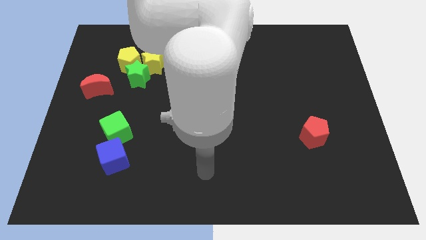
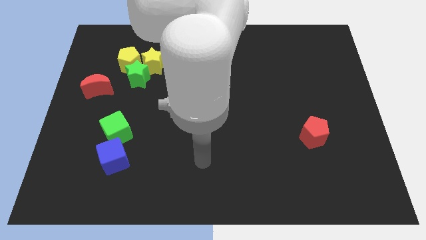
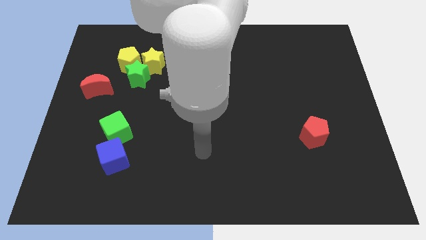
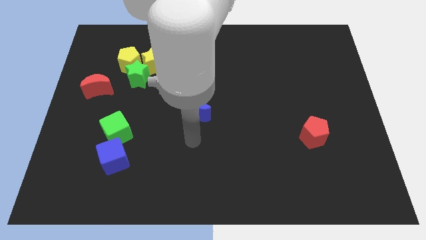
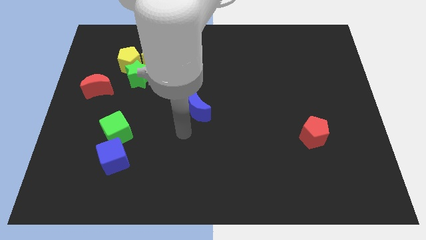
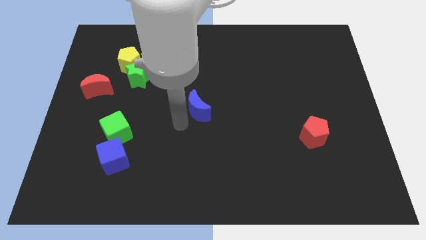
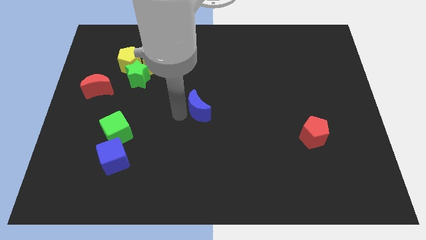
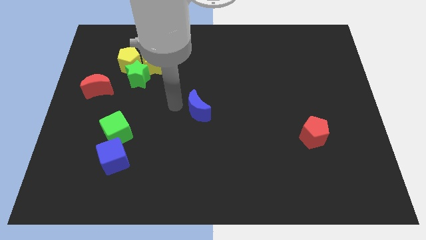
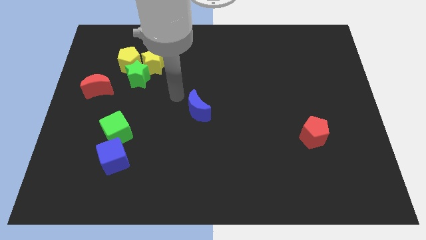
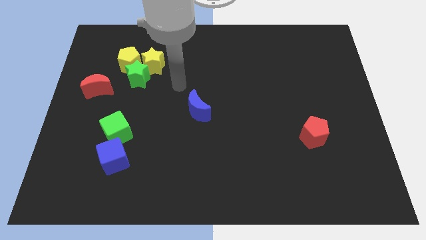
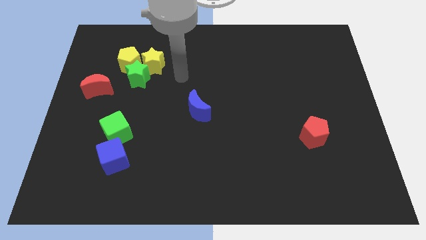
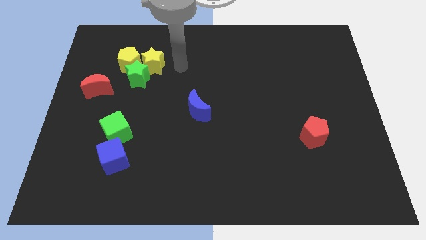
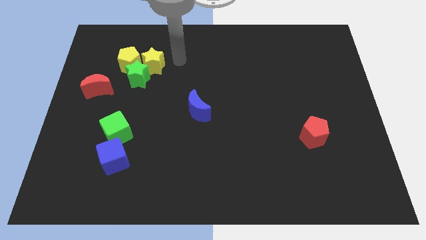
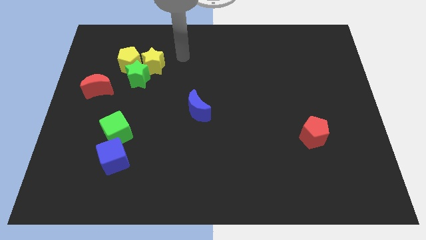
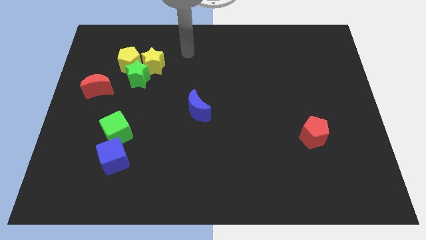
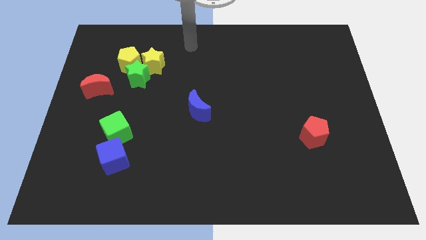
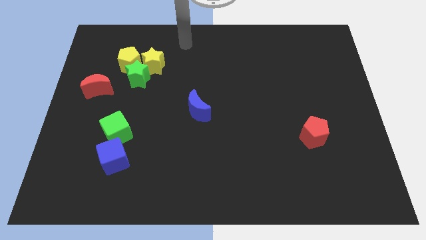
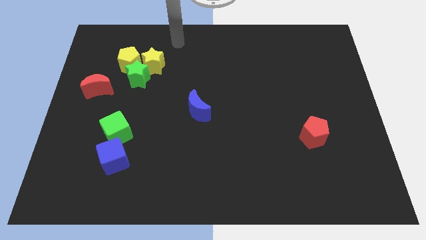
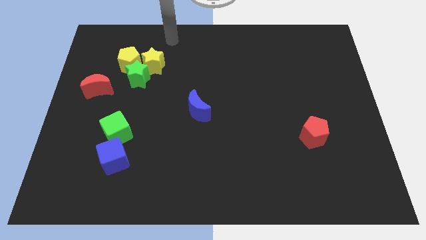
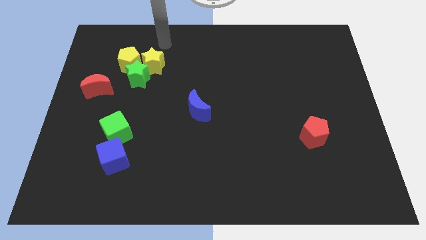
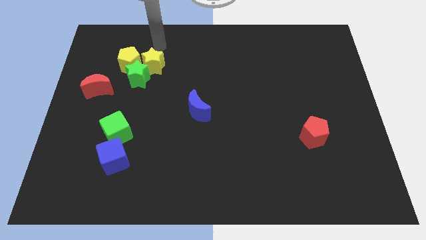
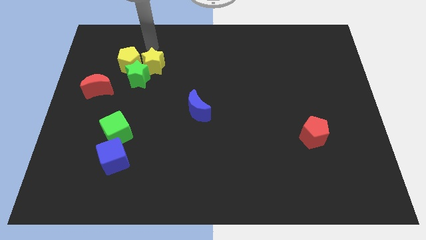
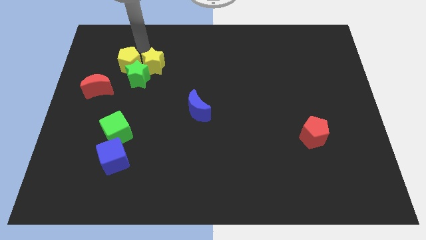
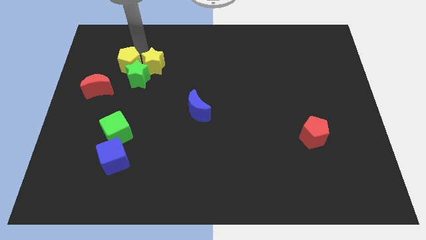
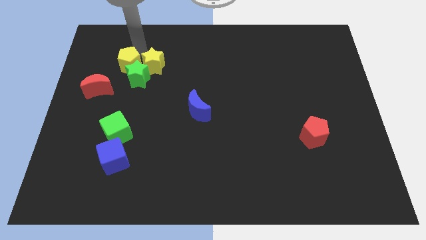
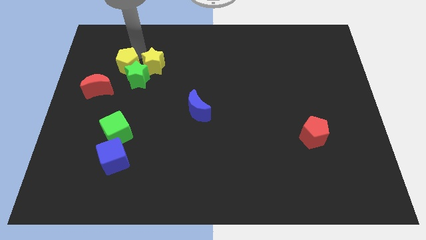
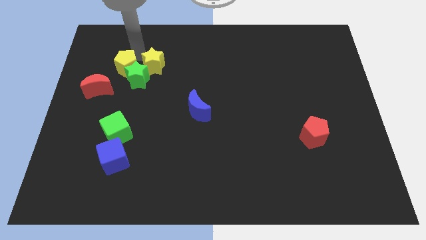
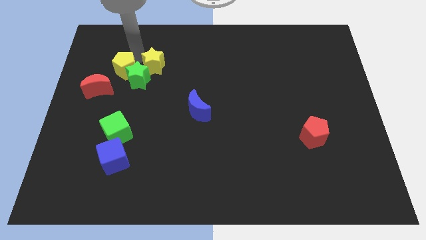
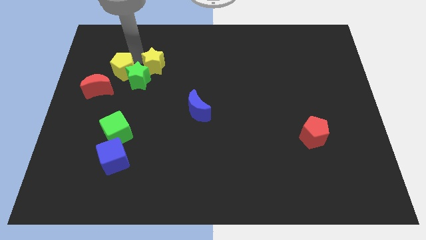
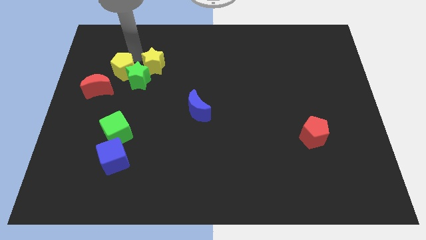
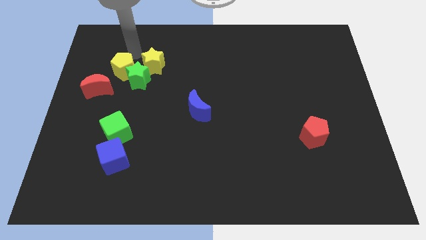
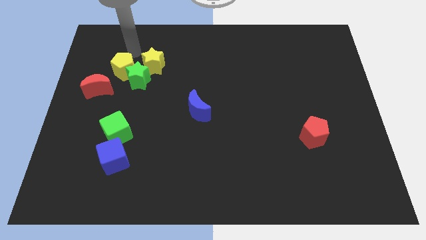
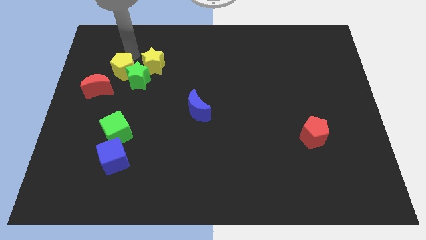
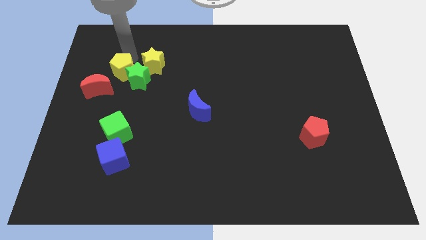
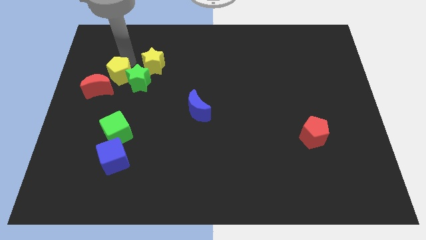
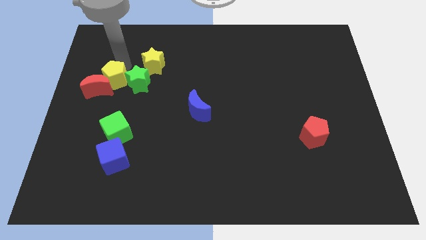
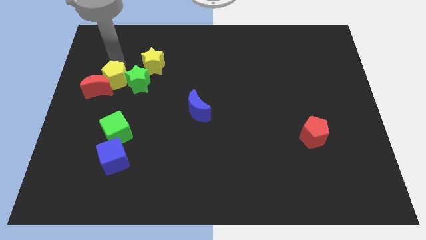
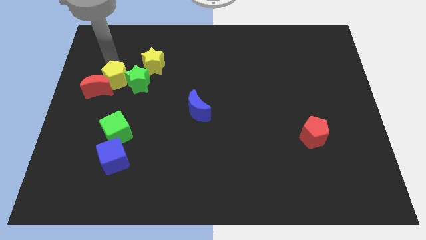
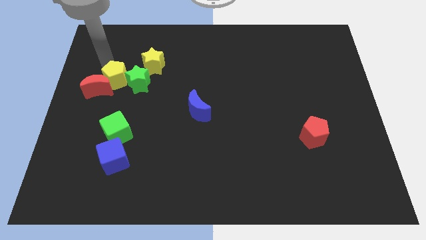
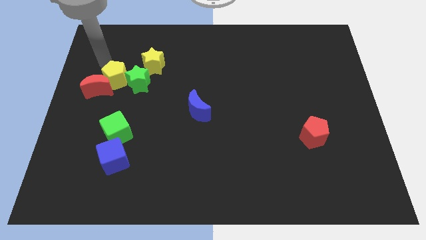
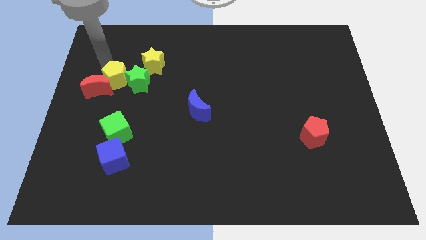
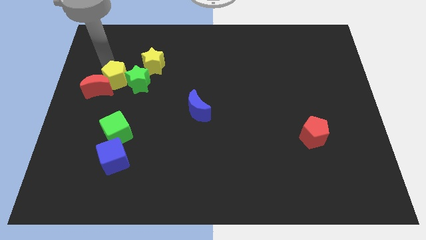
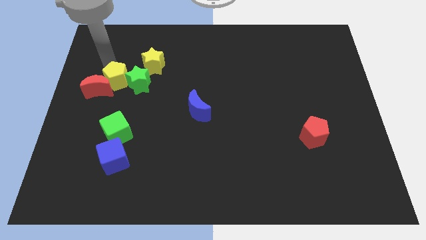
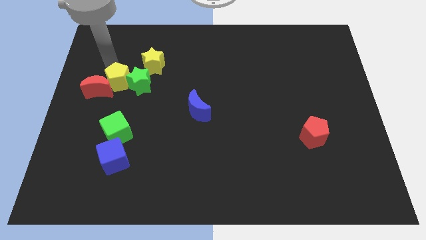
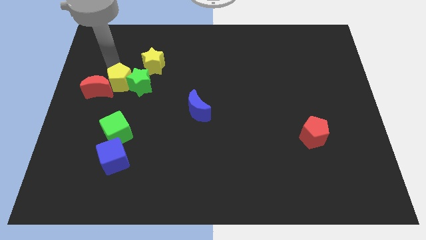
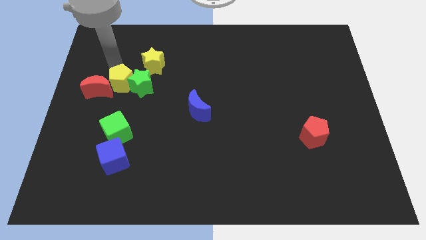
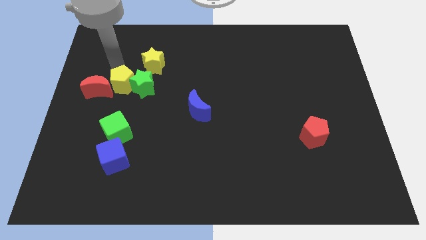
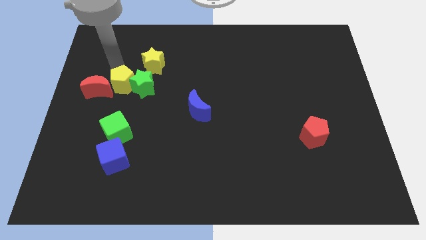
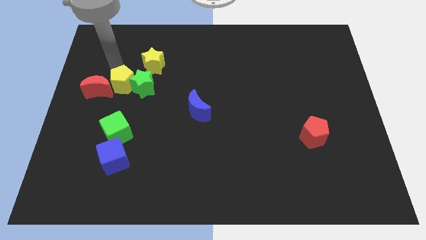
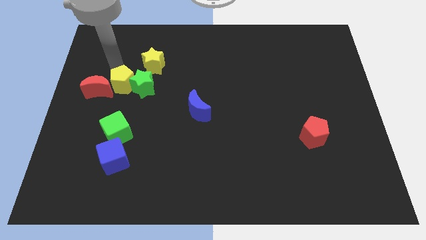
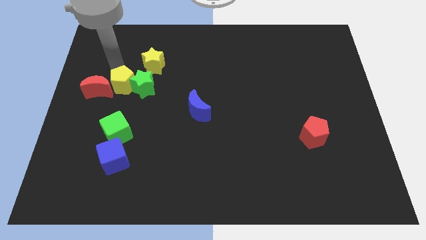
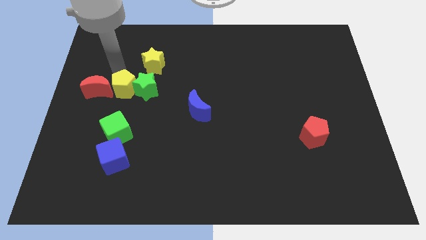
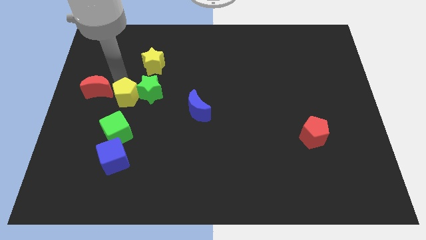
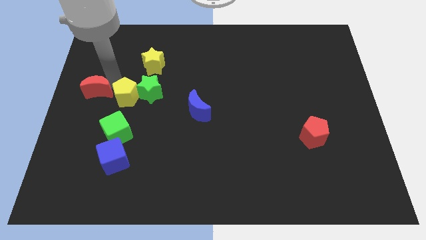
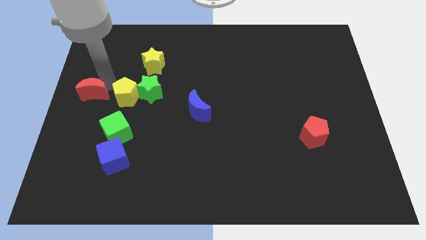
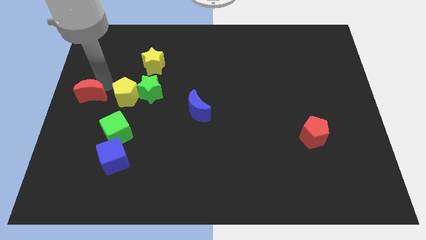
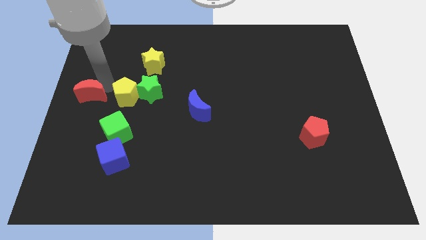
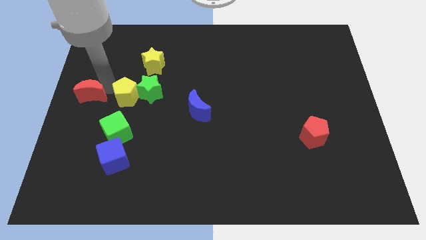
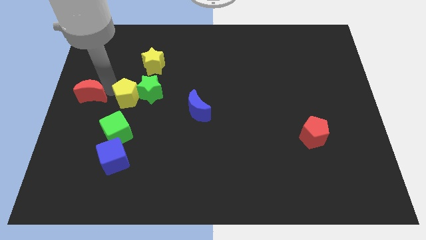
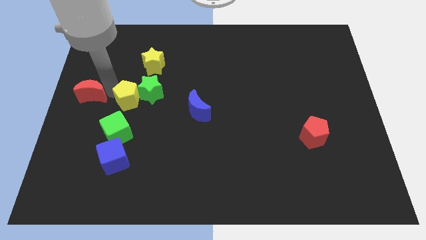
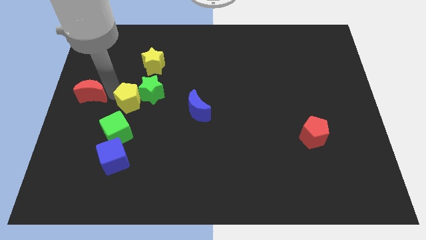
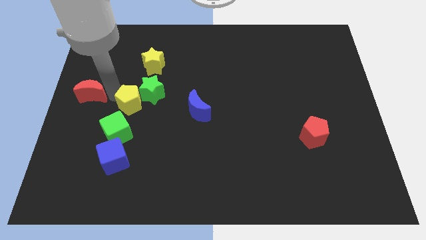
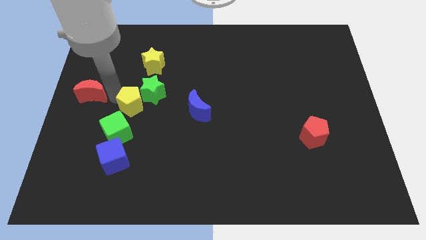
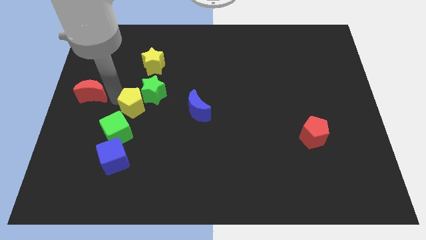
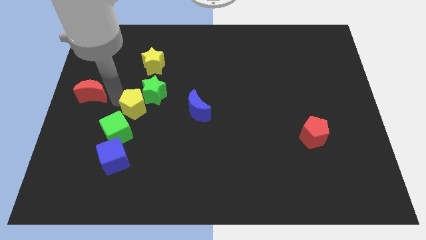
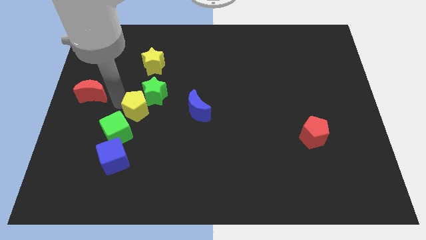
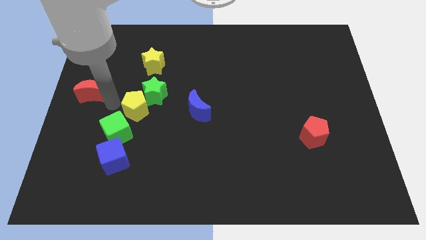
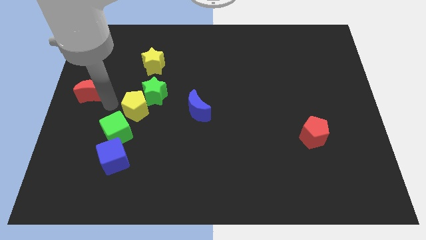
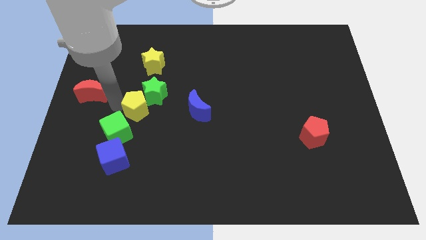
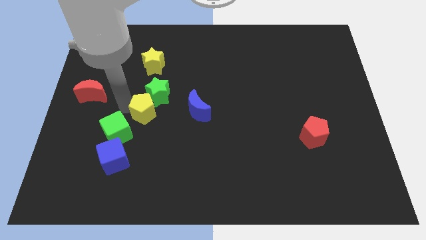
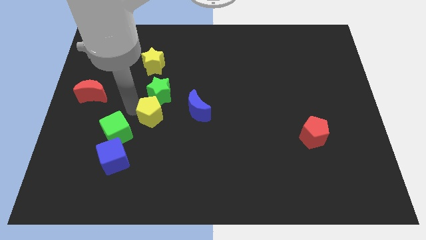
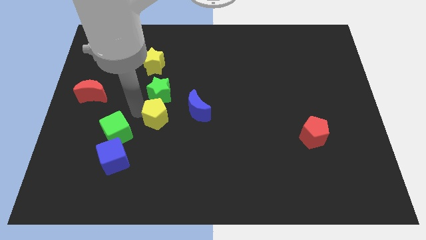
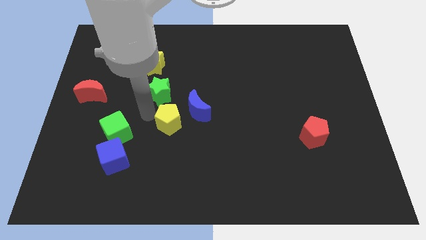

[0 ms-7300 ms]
slide the yellow pentagon down and right

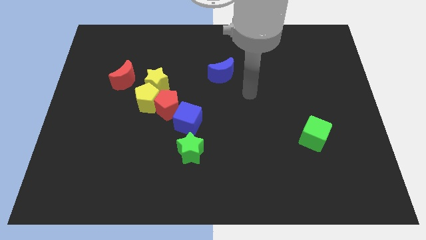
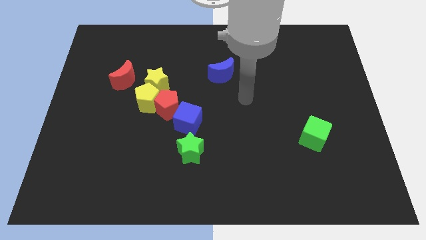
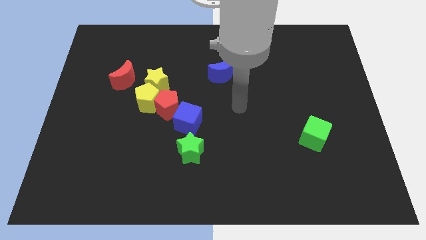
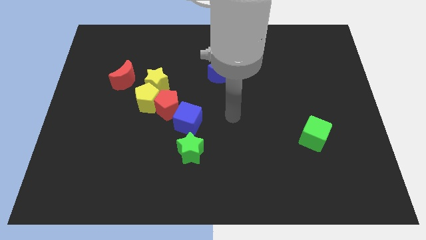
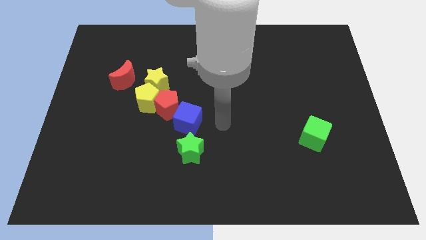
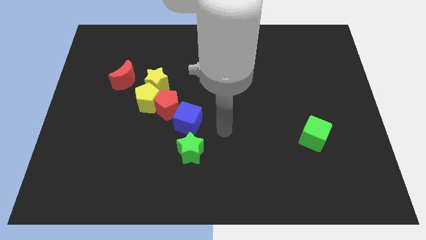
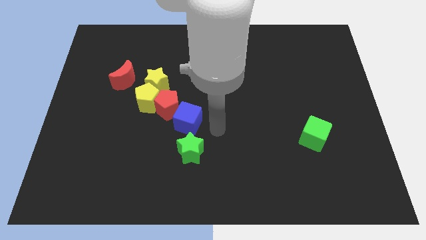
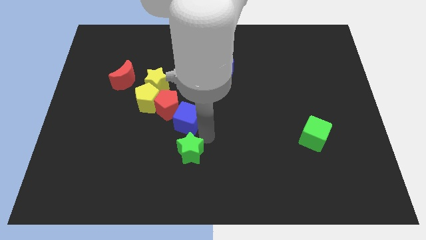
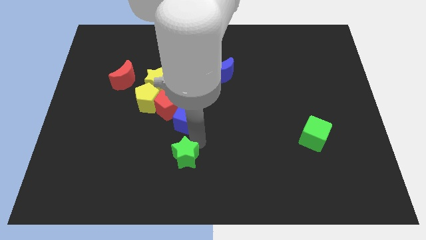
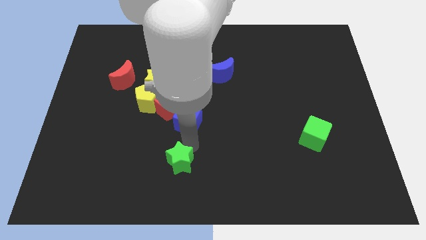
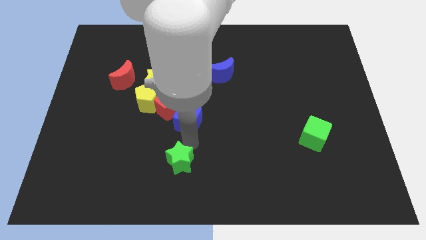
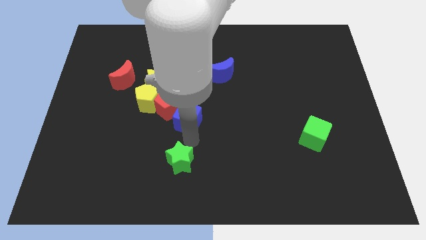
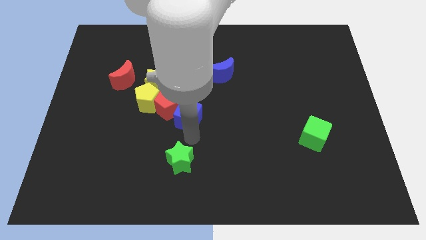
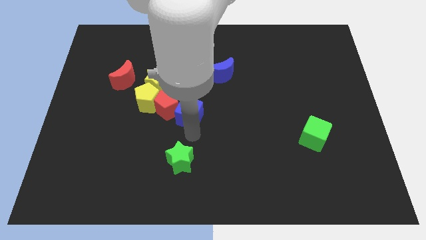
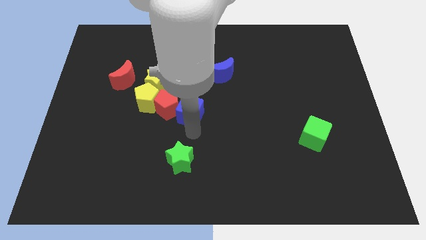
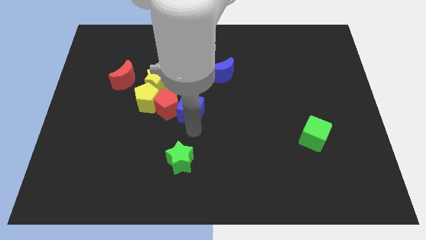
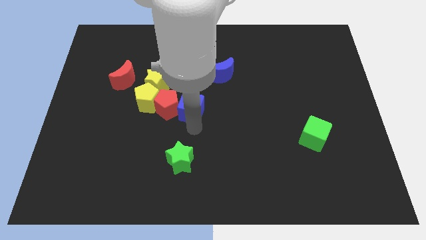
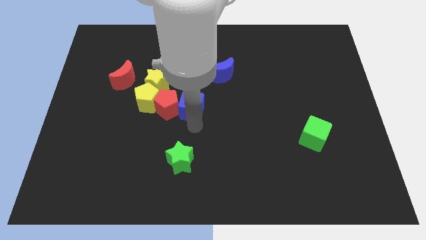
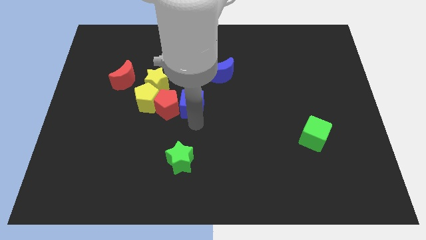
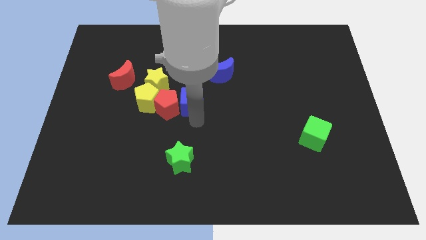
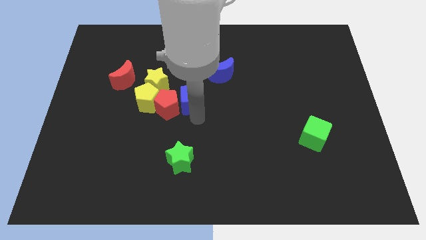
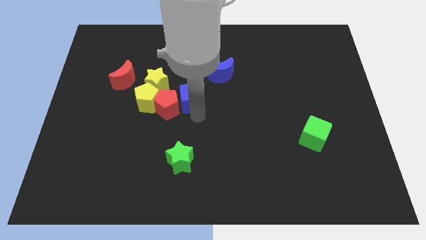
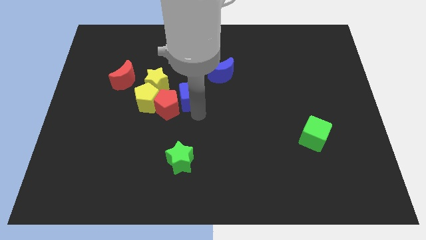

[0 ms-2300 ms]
push the blue cube upwards somewhat
